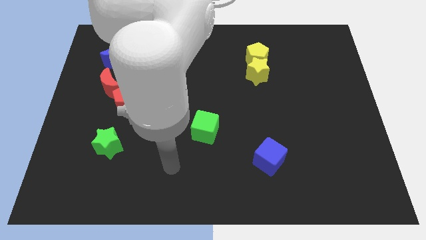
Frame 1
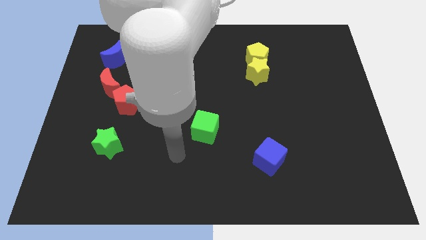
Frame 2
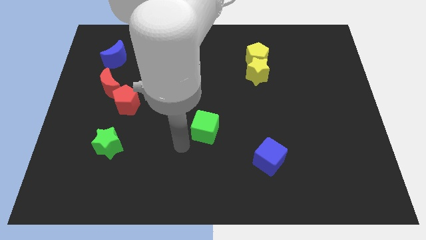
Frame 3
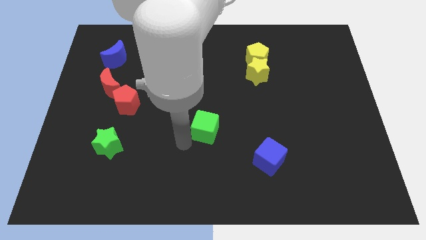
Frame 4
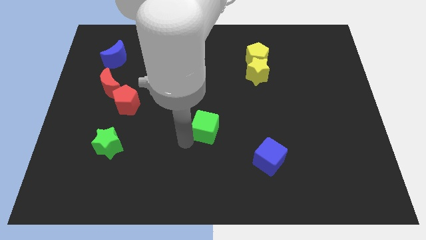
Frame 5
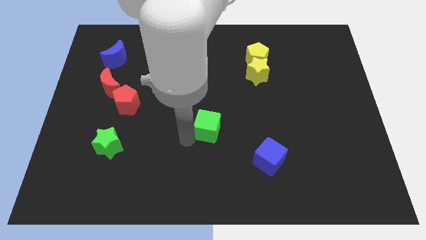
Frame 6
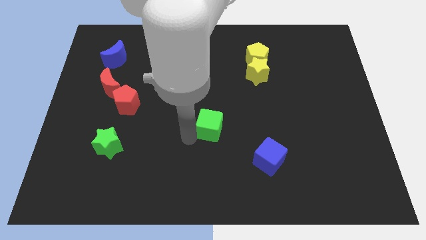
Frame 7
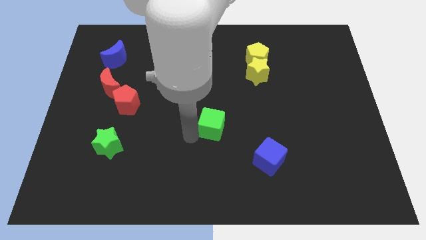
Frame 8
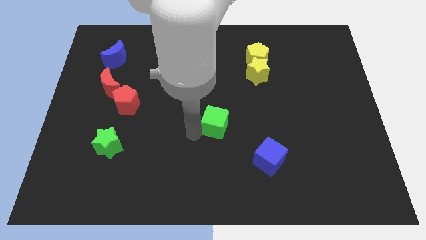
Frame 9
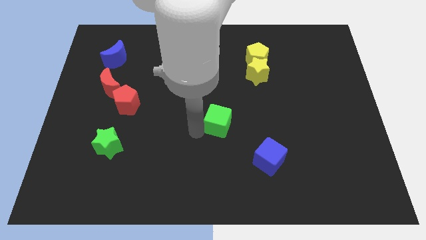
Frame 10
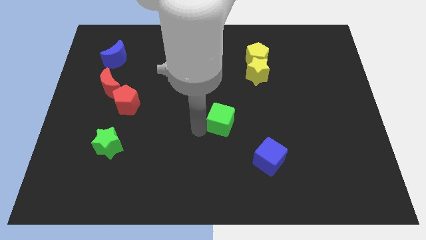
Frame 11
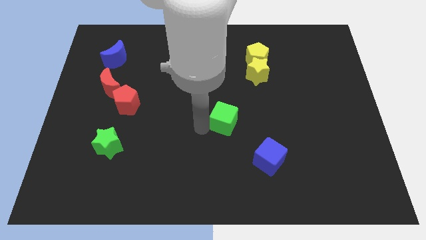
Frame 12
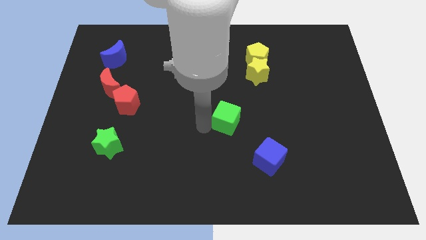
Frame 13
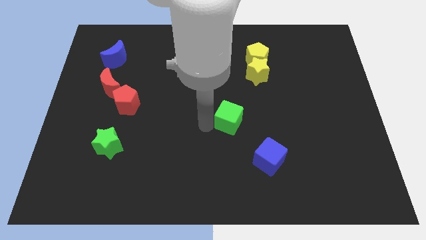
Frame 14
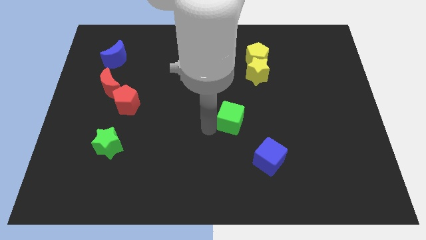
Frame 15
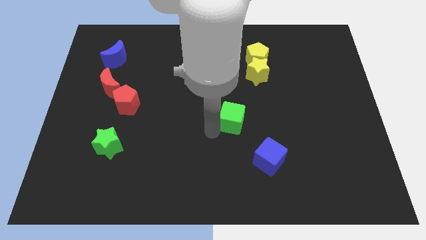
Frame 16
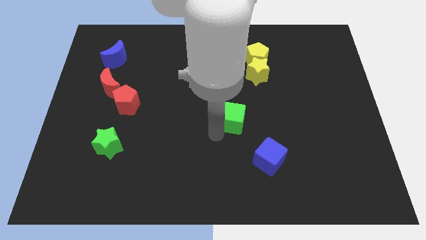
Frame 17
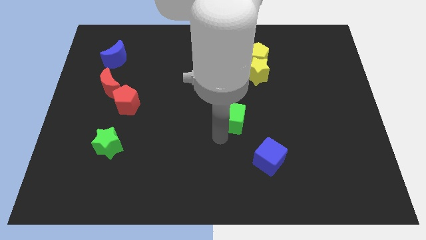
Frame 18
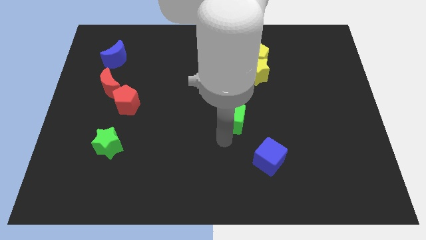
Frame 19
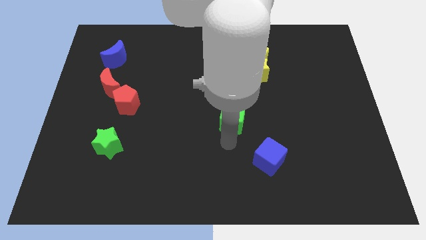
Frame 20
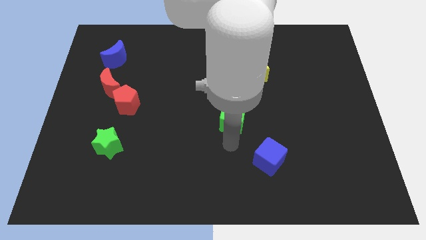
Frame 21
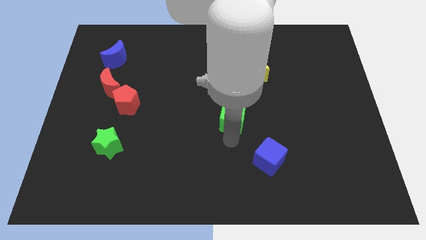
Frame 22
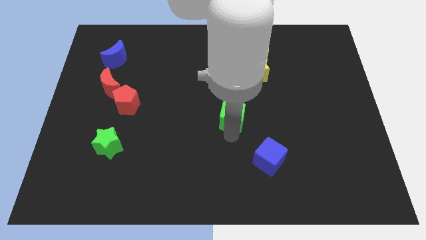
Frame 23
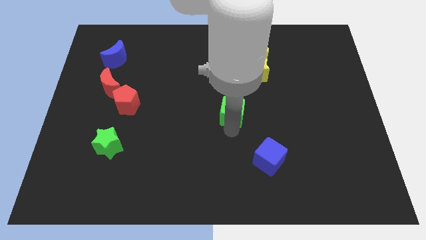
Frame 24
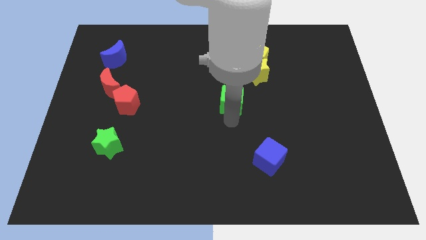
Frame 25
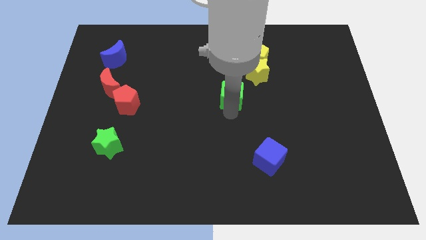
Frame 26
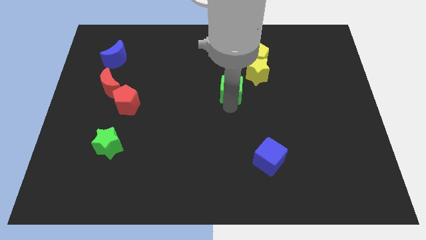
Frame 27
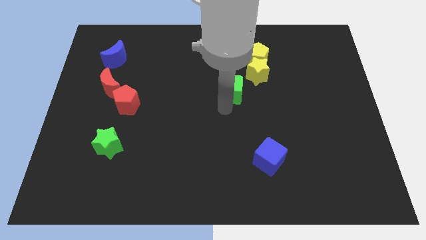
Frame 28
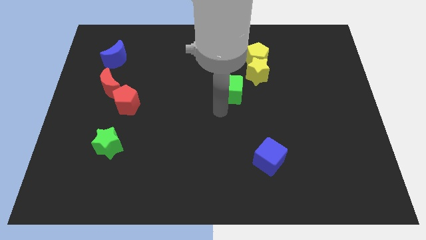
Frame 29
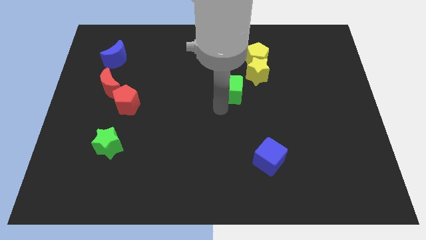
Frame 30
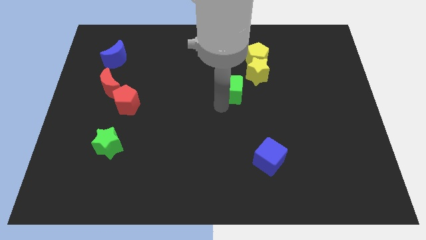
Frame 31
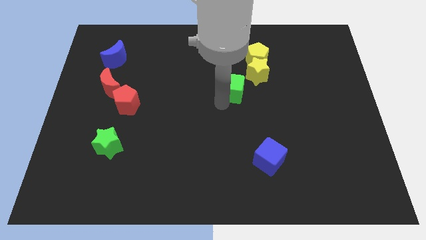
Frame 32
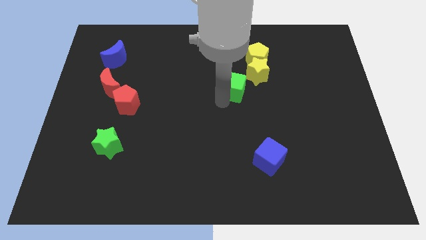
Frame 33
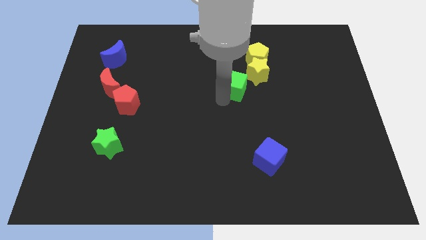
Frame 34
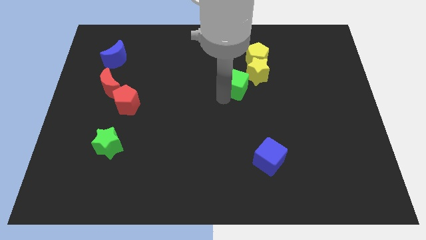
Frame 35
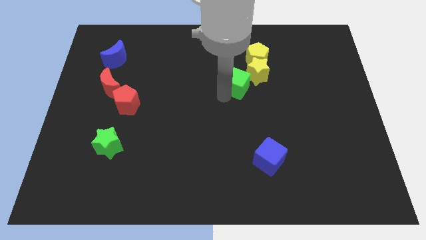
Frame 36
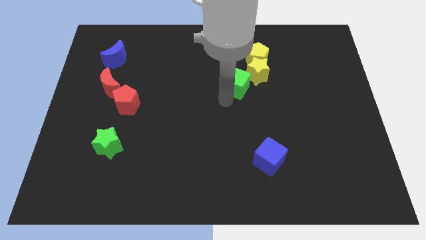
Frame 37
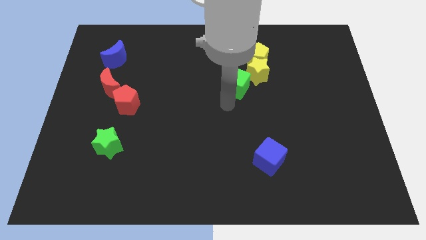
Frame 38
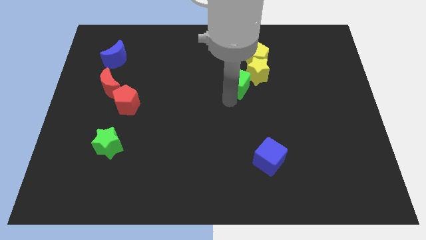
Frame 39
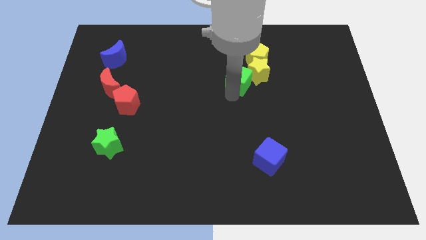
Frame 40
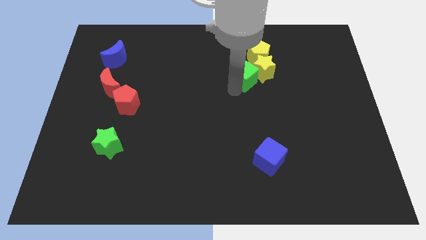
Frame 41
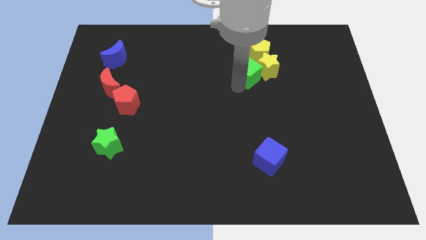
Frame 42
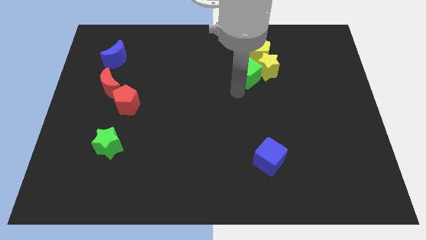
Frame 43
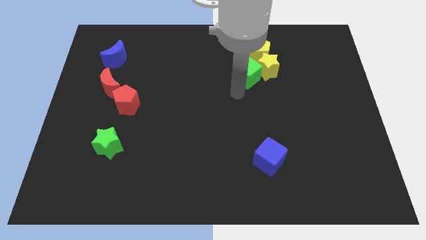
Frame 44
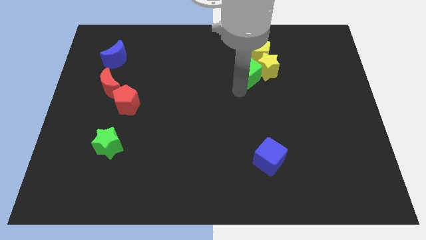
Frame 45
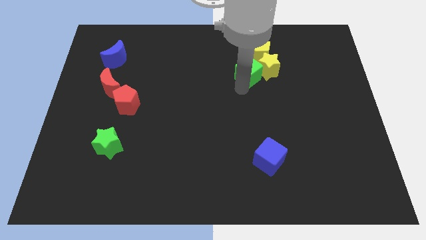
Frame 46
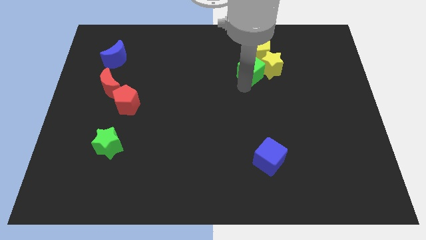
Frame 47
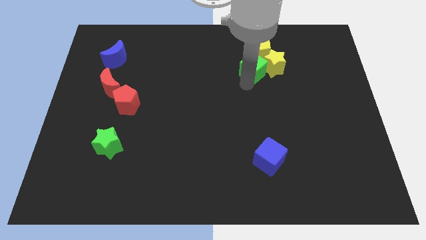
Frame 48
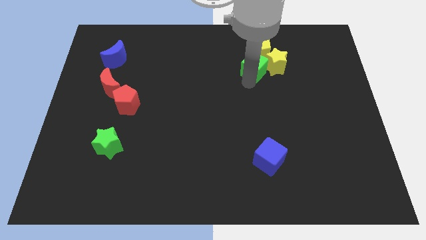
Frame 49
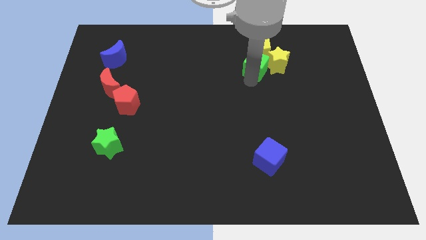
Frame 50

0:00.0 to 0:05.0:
put the green cube next to the yellow pentagon

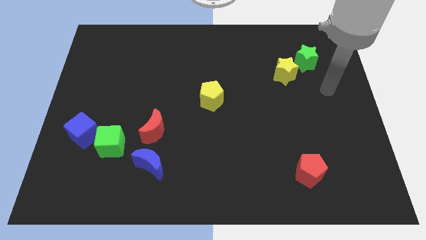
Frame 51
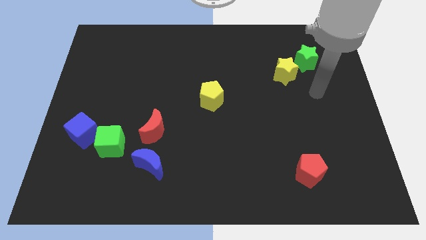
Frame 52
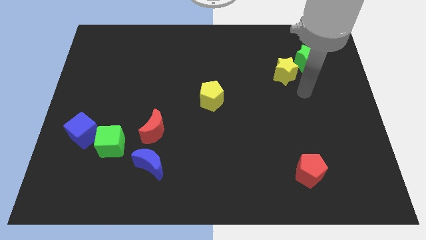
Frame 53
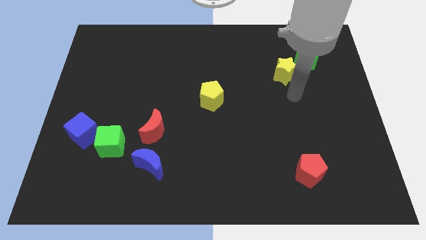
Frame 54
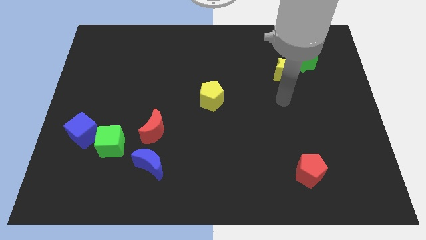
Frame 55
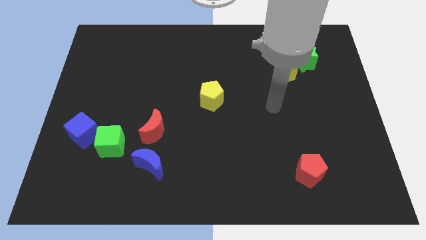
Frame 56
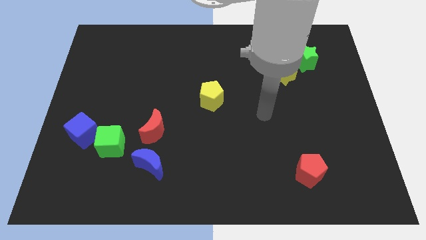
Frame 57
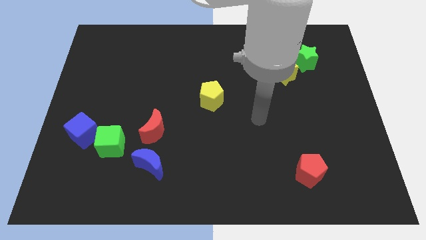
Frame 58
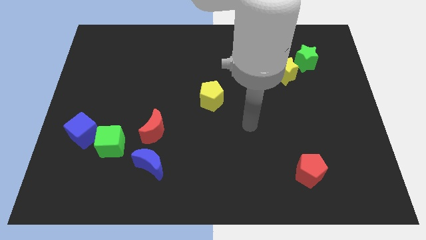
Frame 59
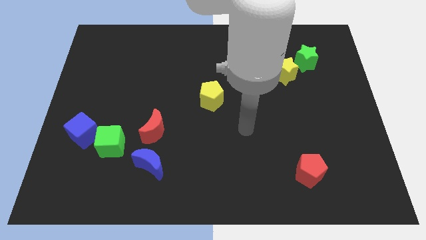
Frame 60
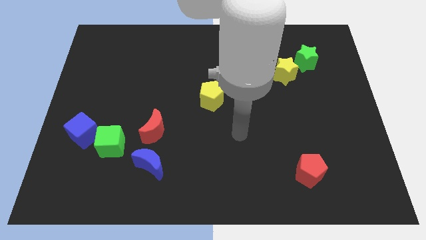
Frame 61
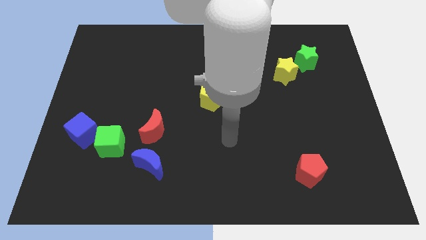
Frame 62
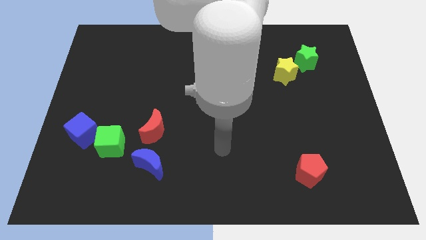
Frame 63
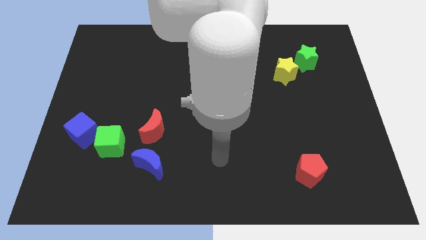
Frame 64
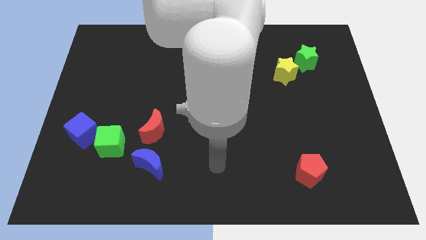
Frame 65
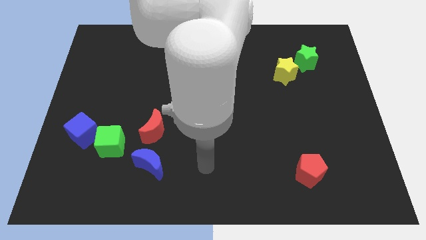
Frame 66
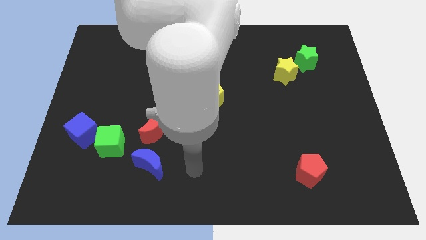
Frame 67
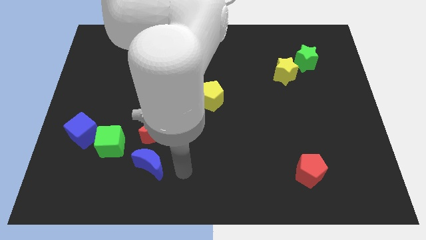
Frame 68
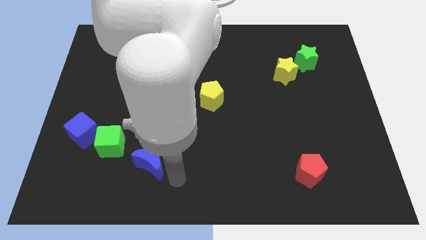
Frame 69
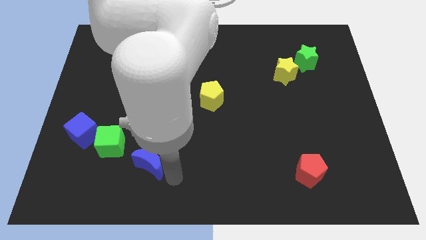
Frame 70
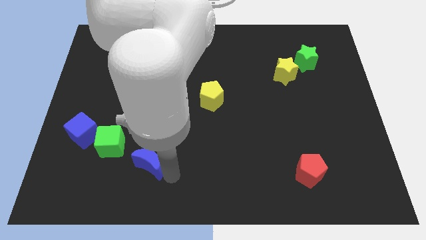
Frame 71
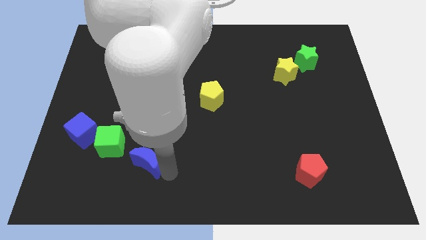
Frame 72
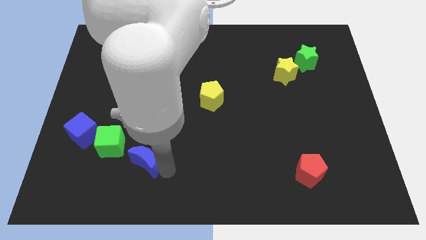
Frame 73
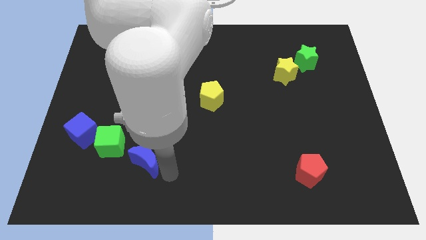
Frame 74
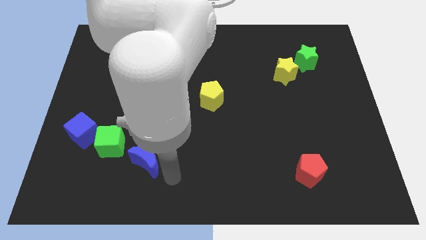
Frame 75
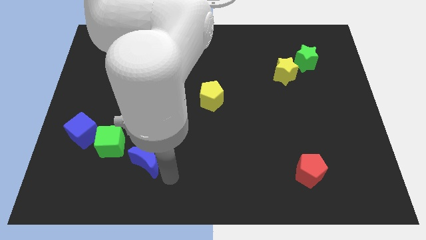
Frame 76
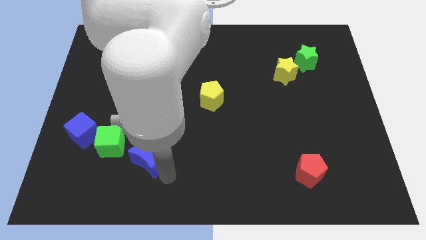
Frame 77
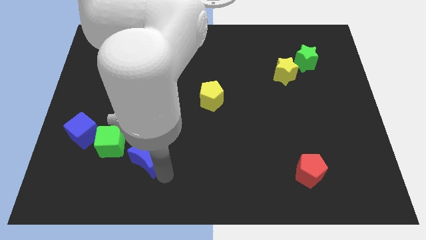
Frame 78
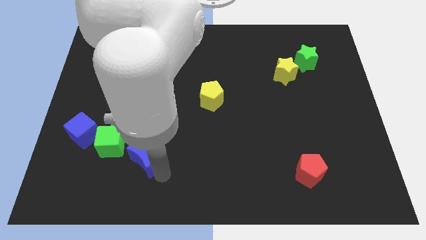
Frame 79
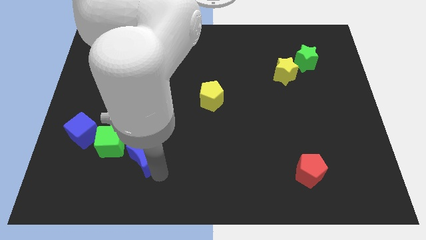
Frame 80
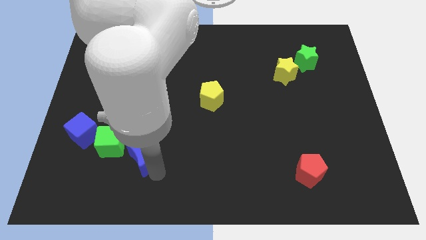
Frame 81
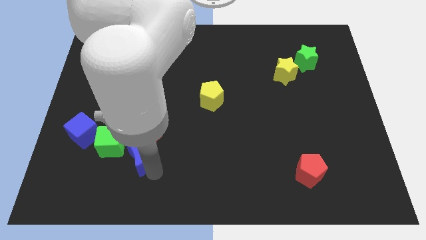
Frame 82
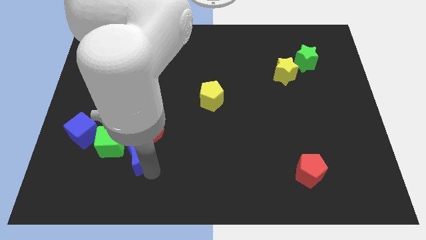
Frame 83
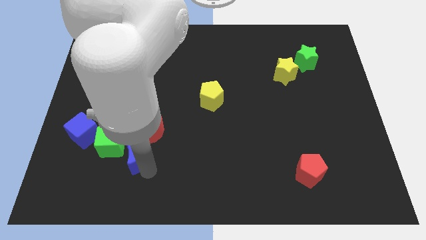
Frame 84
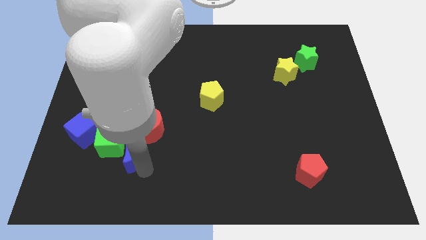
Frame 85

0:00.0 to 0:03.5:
push the blue moon towards the green cube
